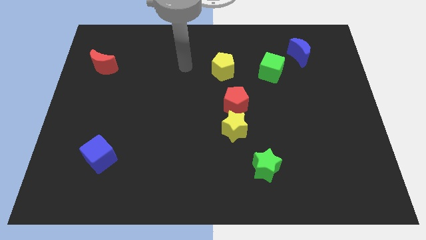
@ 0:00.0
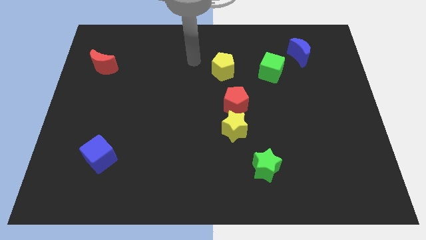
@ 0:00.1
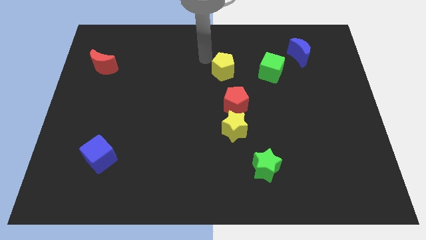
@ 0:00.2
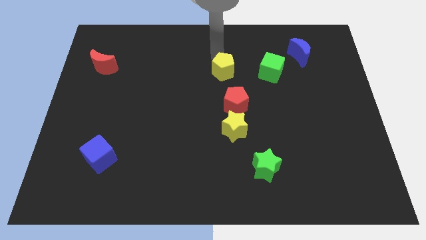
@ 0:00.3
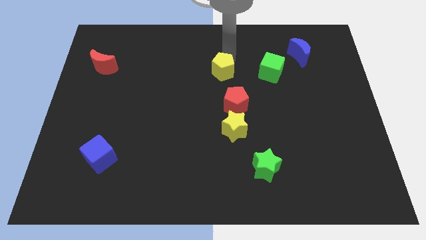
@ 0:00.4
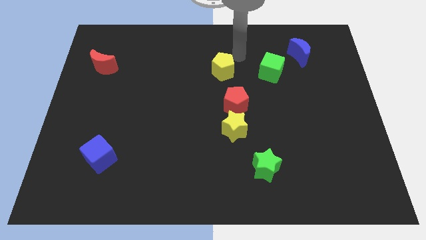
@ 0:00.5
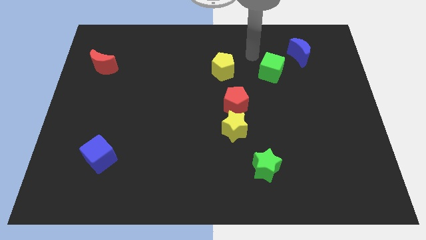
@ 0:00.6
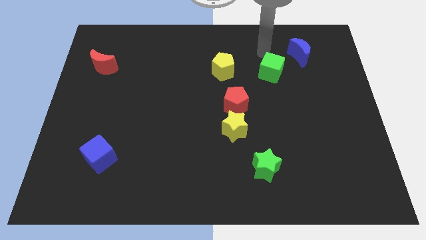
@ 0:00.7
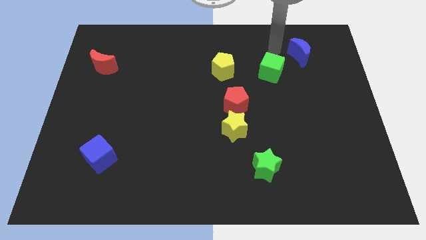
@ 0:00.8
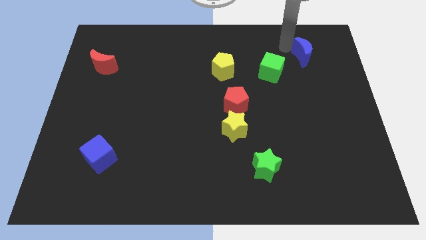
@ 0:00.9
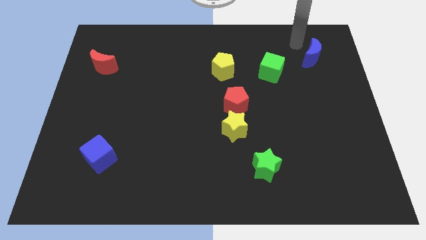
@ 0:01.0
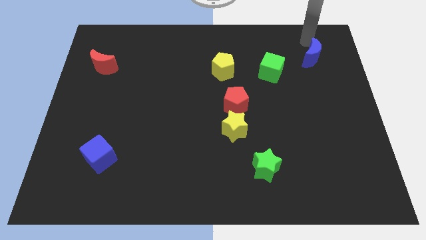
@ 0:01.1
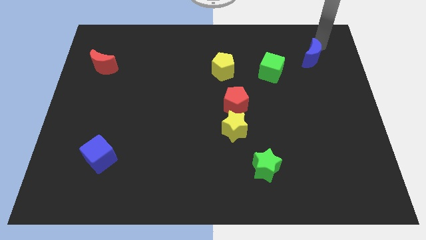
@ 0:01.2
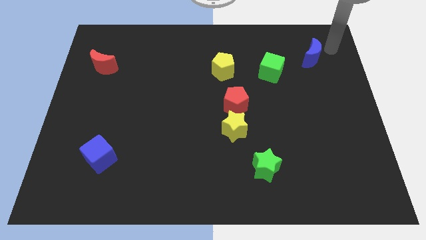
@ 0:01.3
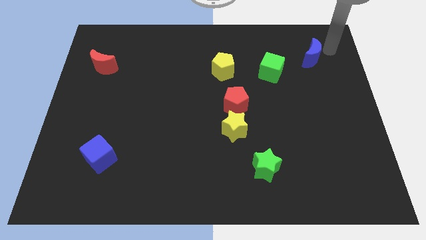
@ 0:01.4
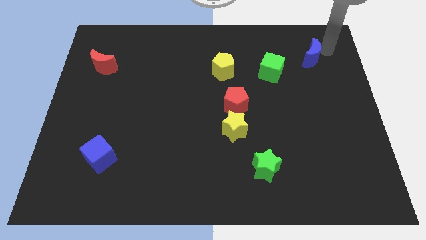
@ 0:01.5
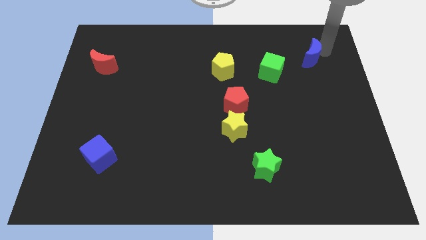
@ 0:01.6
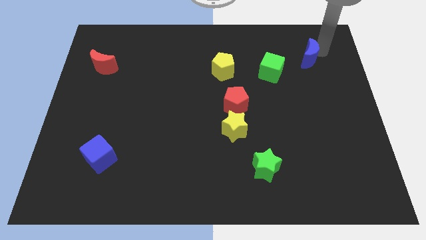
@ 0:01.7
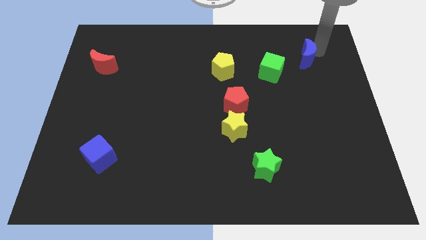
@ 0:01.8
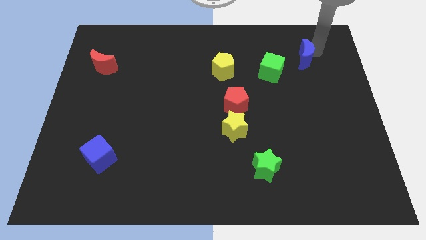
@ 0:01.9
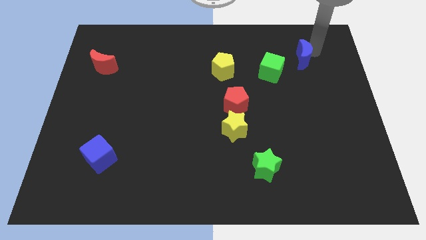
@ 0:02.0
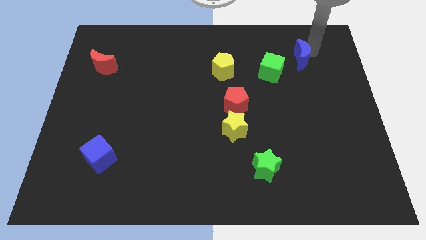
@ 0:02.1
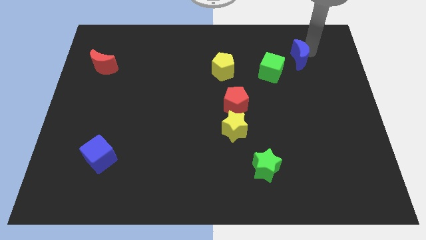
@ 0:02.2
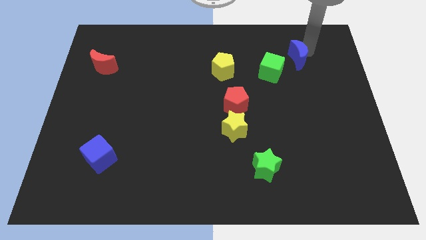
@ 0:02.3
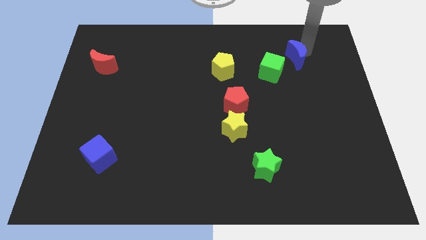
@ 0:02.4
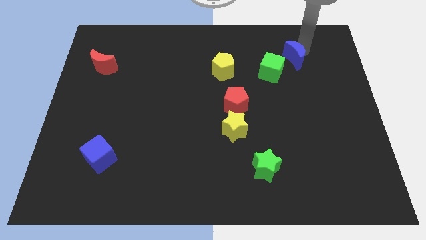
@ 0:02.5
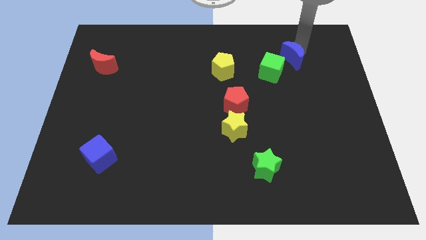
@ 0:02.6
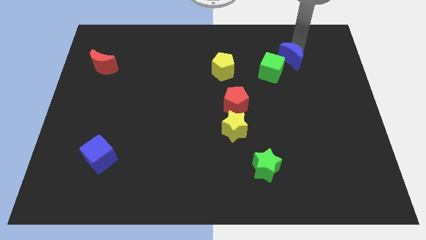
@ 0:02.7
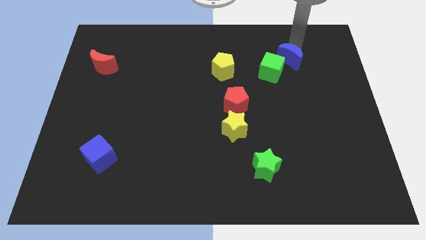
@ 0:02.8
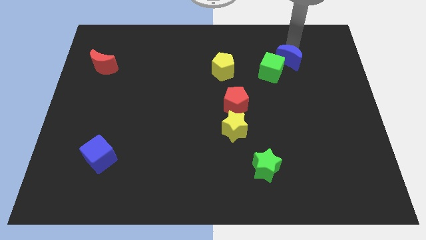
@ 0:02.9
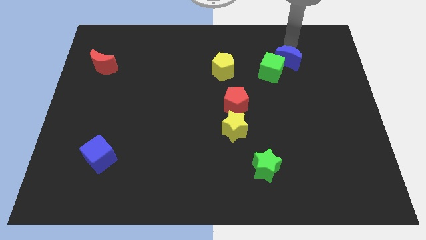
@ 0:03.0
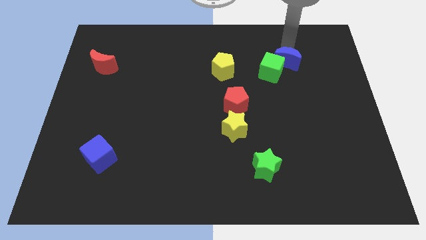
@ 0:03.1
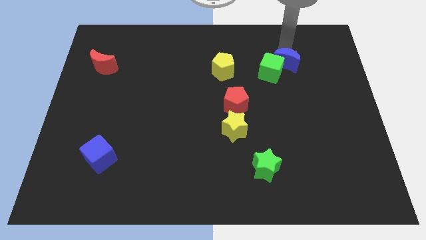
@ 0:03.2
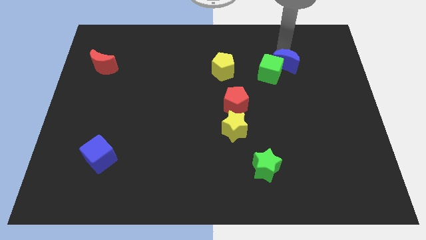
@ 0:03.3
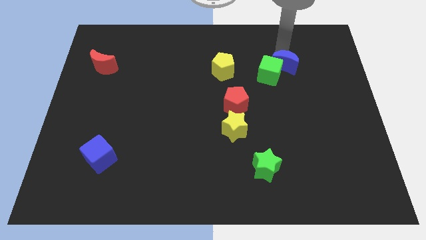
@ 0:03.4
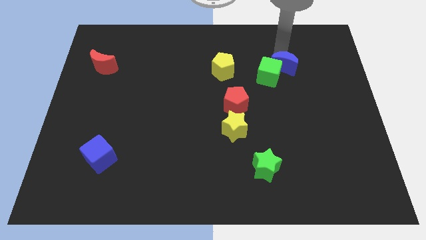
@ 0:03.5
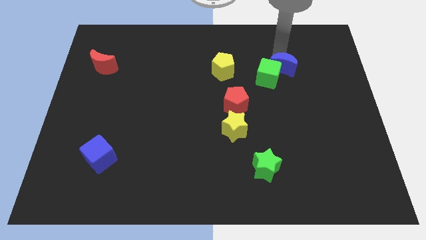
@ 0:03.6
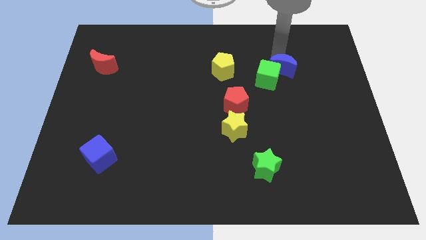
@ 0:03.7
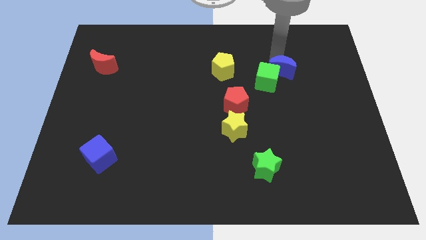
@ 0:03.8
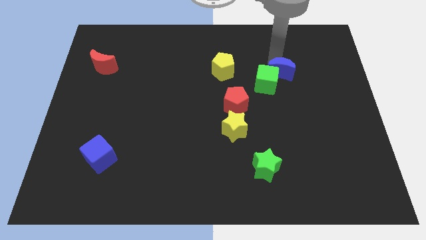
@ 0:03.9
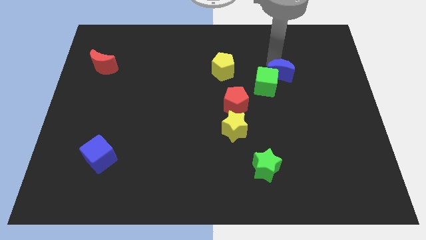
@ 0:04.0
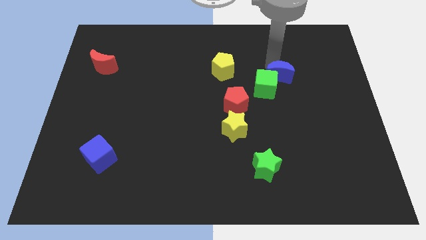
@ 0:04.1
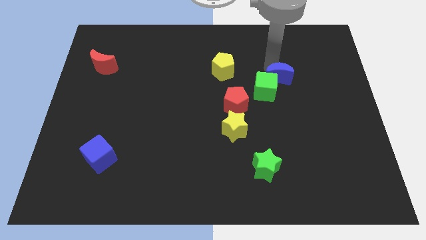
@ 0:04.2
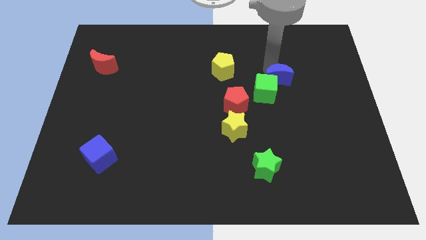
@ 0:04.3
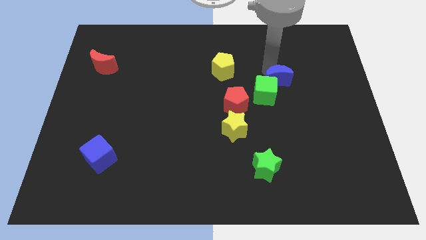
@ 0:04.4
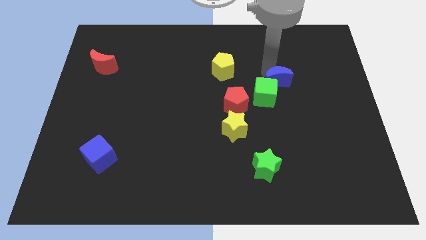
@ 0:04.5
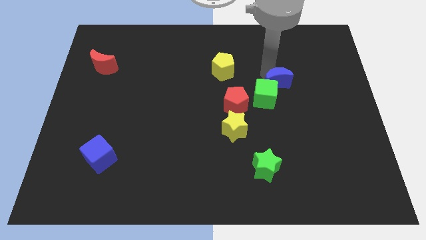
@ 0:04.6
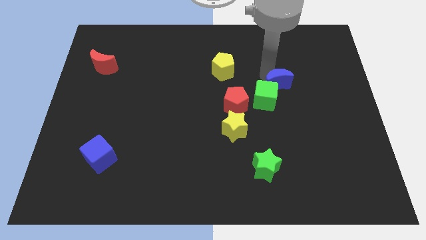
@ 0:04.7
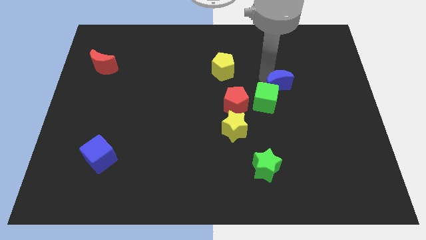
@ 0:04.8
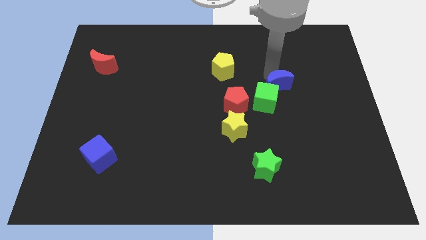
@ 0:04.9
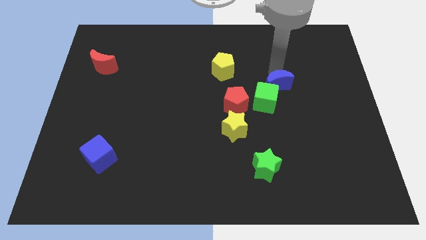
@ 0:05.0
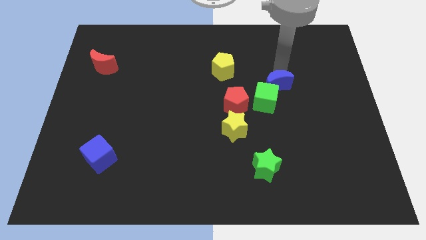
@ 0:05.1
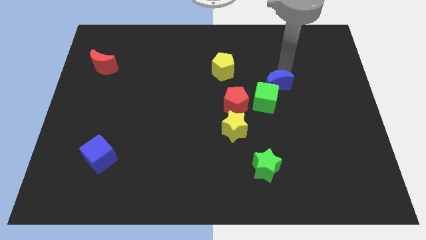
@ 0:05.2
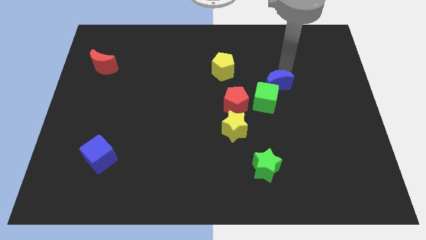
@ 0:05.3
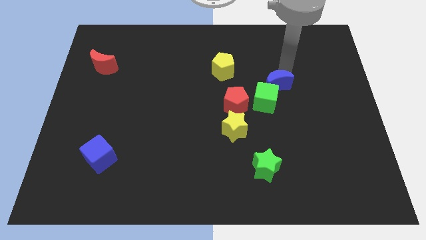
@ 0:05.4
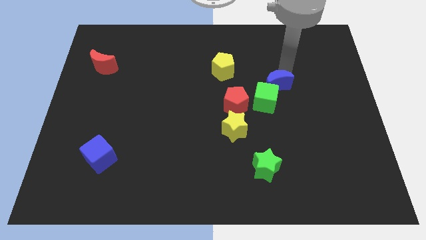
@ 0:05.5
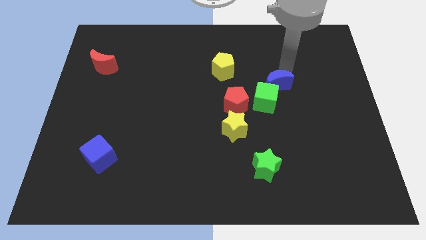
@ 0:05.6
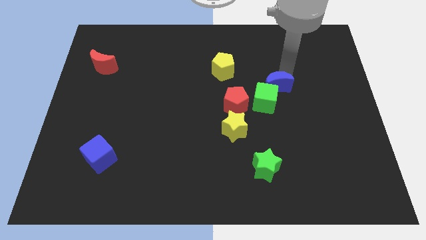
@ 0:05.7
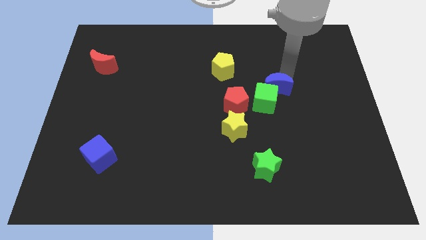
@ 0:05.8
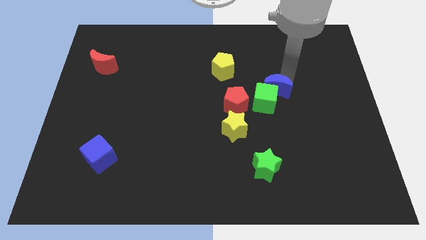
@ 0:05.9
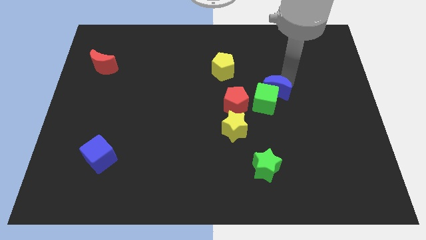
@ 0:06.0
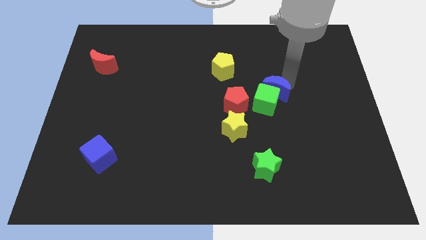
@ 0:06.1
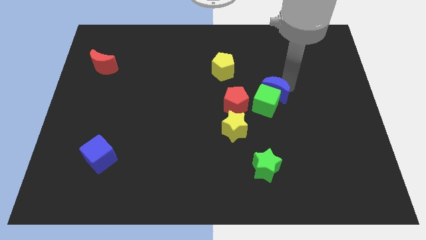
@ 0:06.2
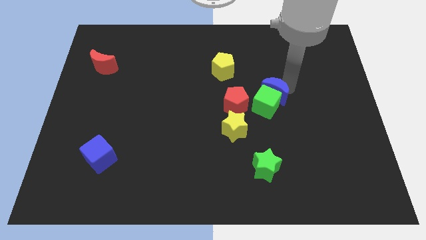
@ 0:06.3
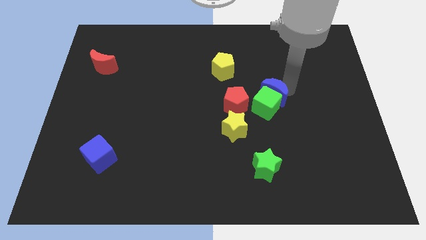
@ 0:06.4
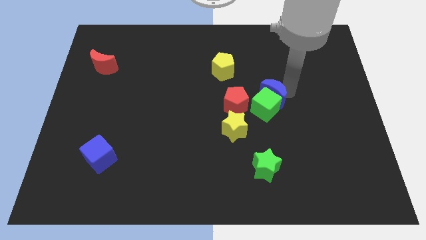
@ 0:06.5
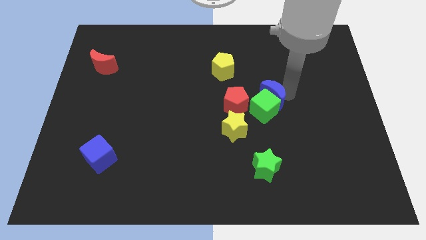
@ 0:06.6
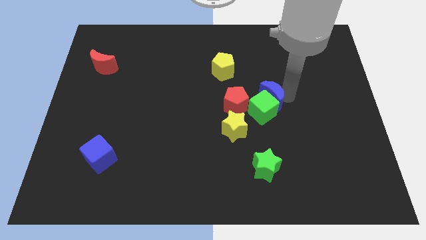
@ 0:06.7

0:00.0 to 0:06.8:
push the blue moon to the top right of the yellow star
